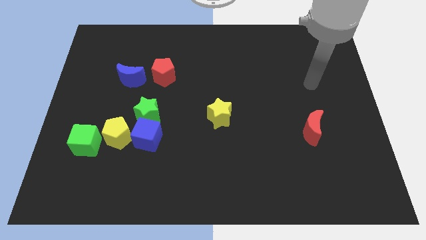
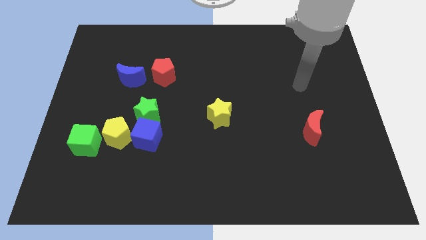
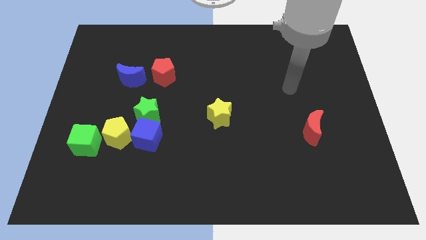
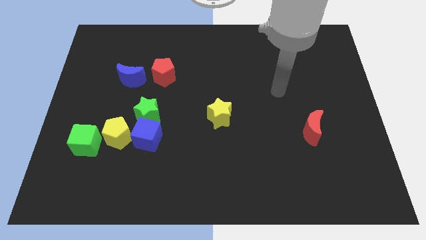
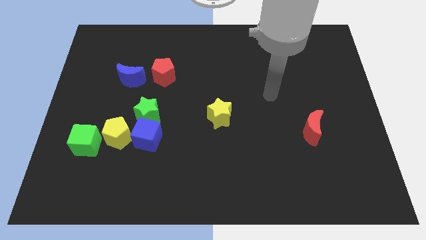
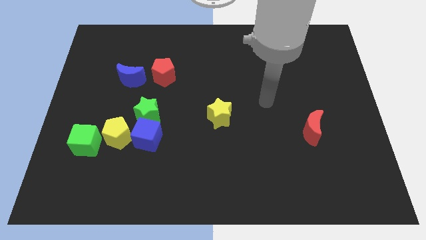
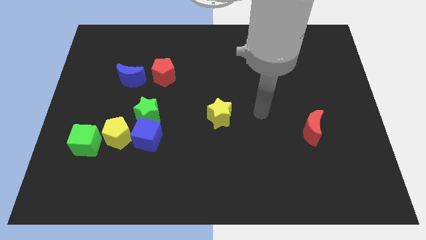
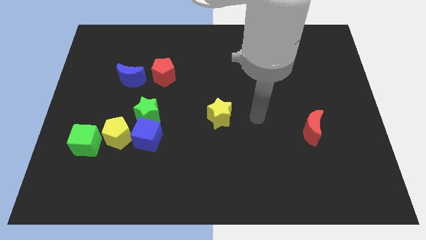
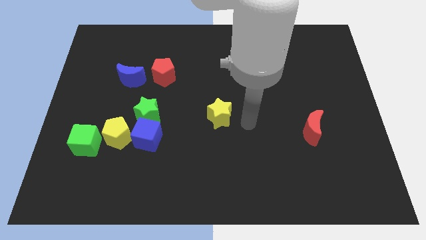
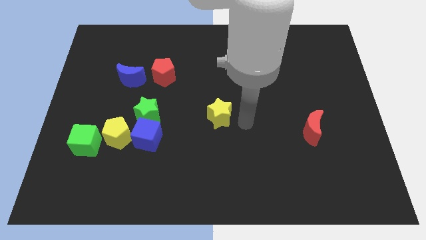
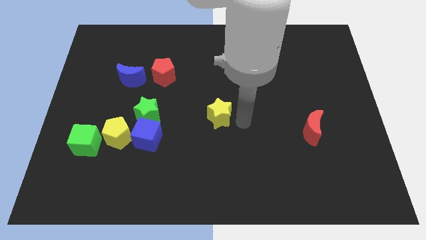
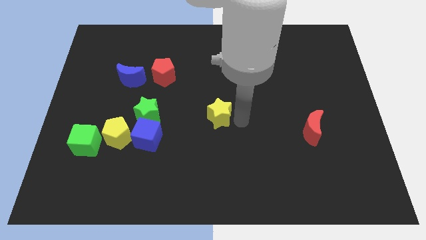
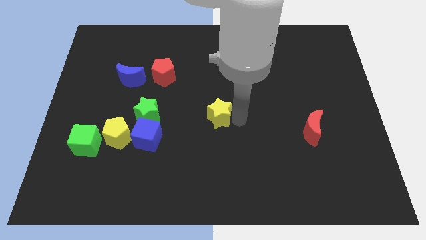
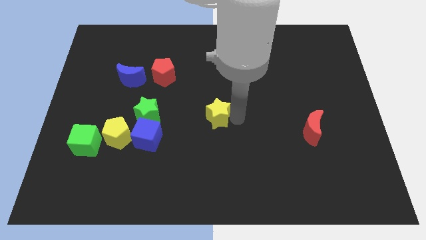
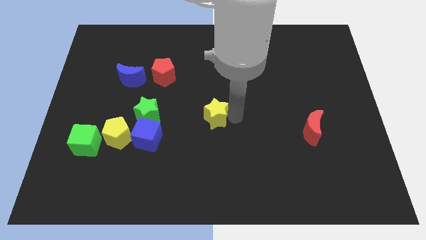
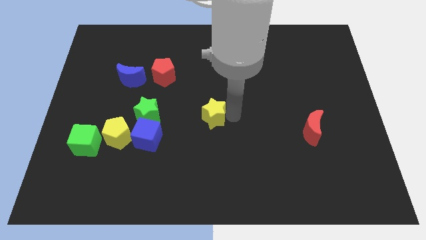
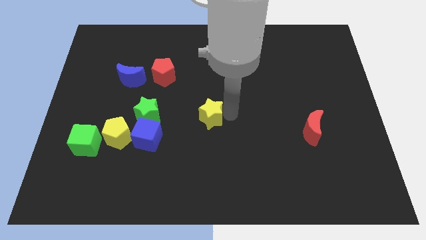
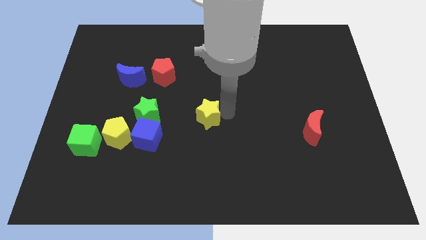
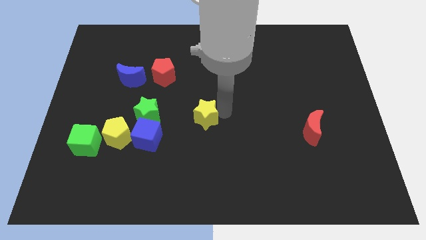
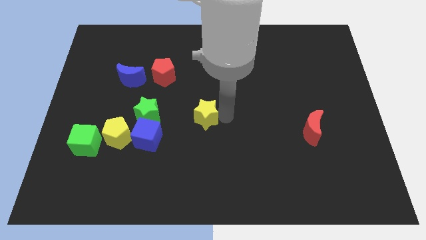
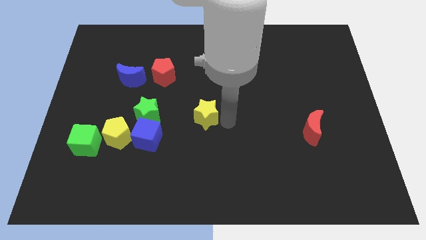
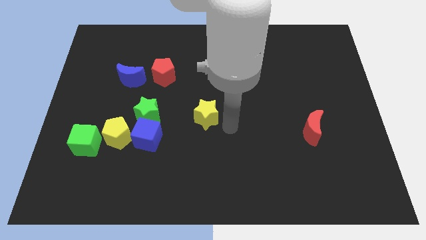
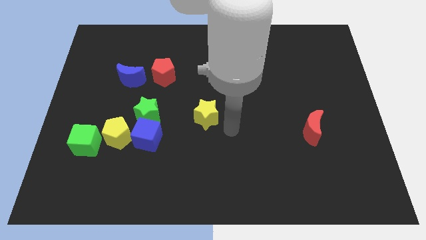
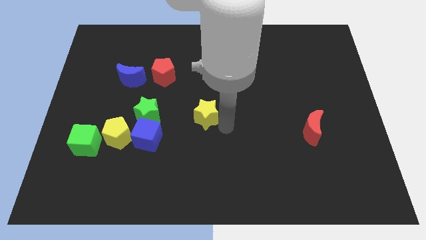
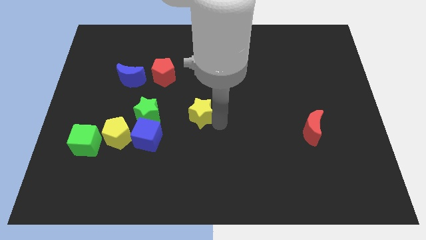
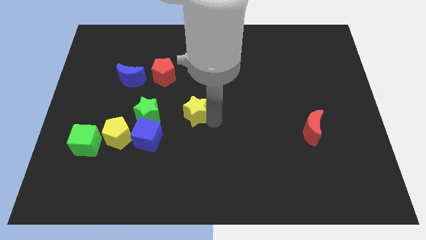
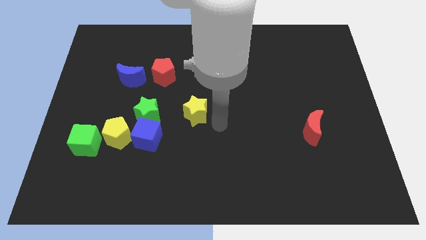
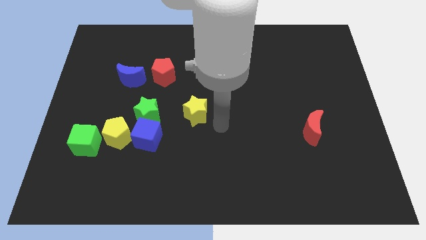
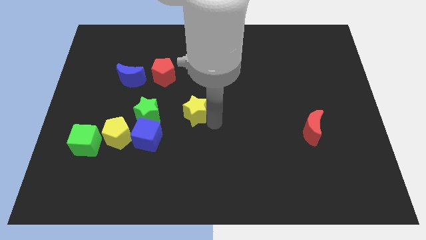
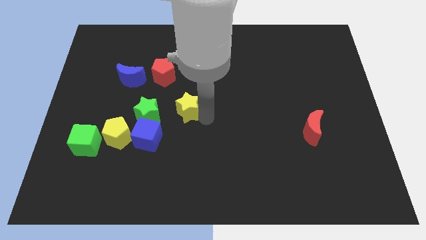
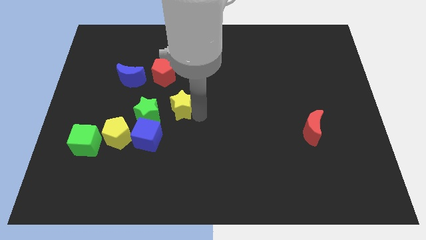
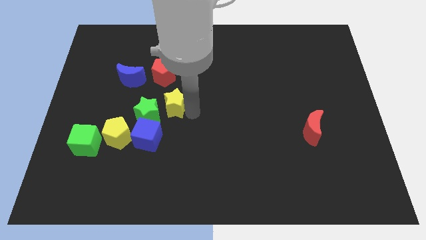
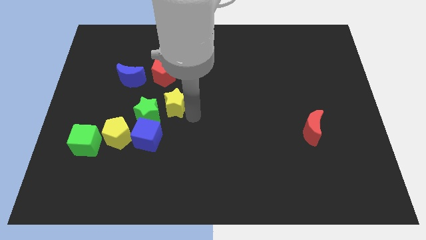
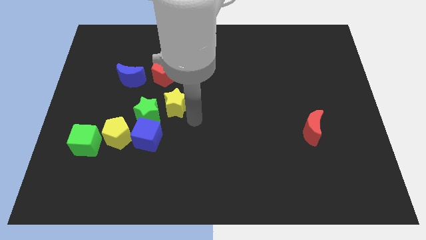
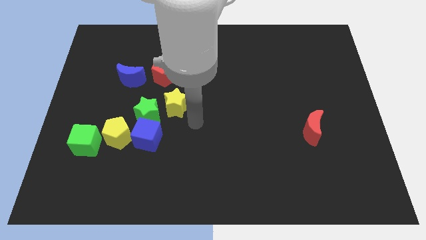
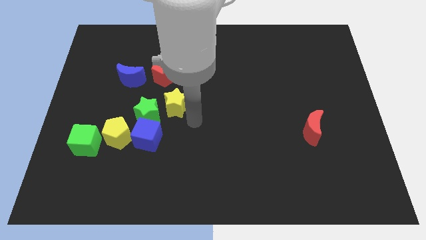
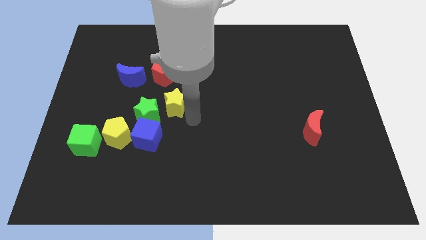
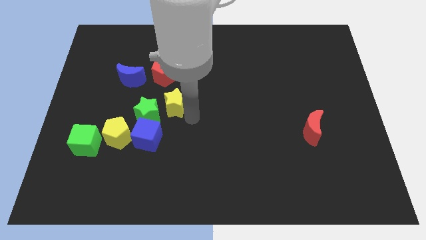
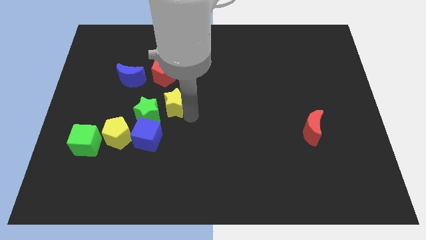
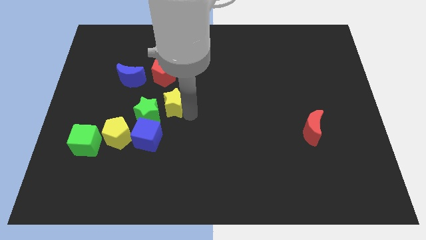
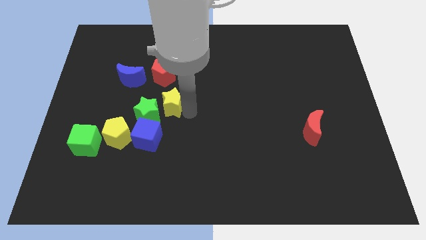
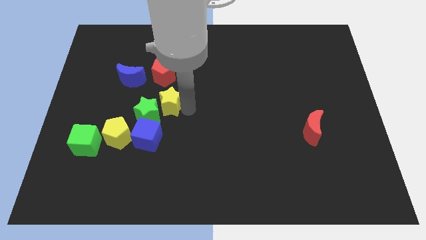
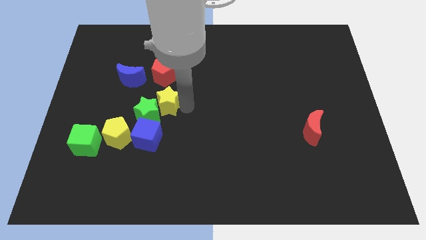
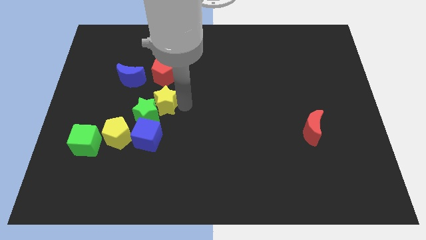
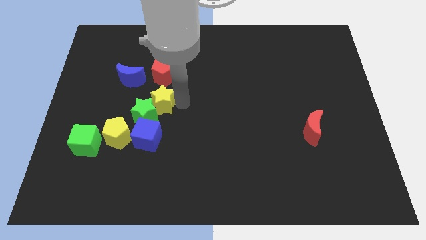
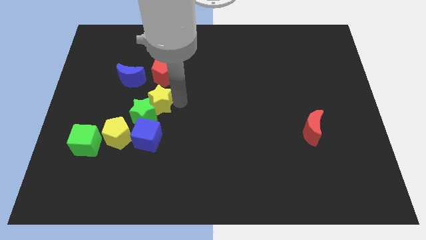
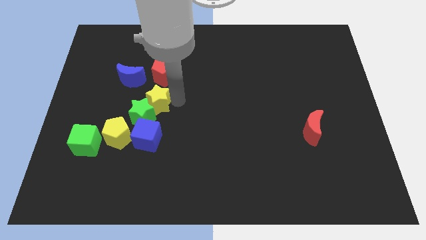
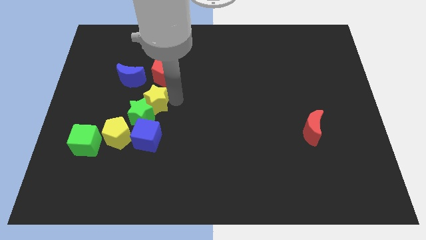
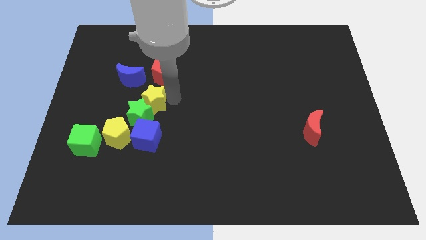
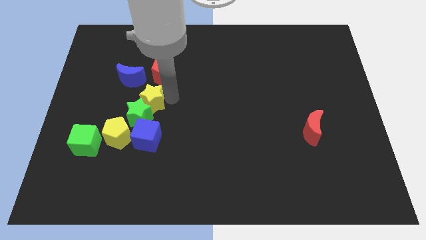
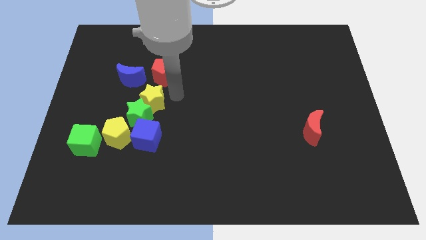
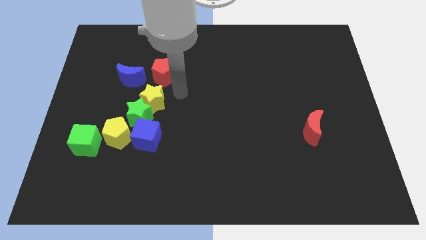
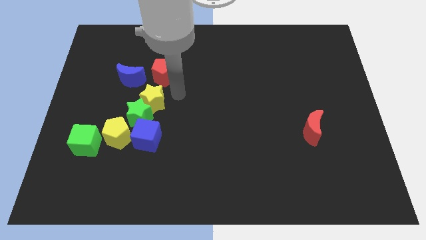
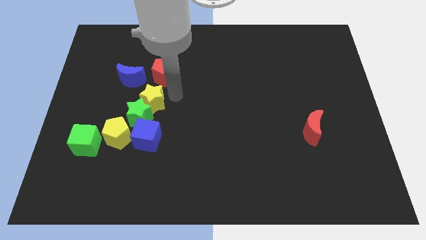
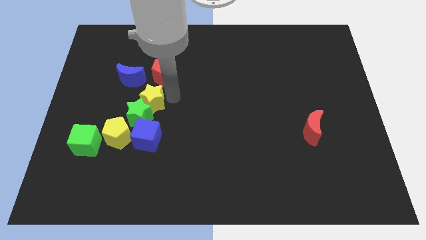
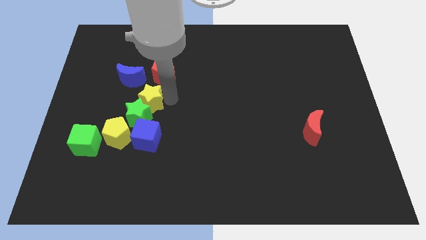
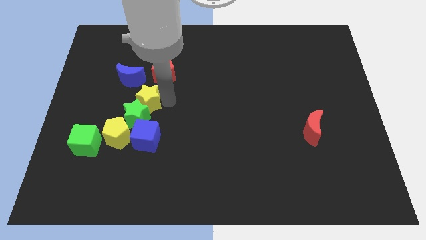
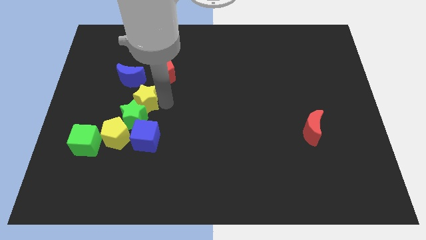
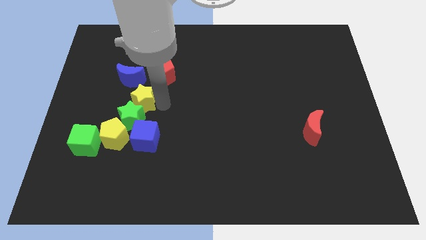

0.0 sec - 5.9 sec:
slide the yellow star below the blue moon

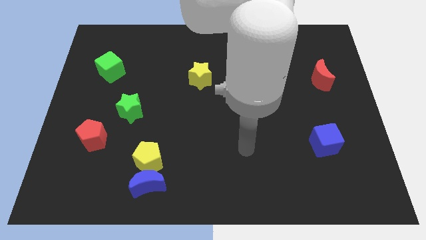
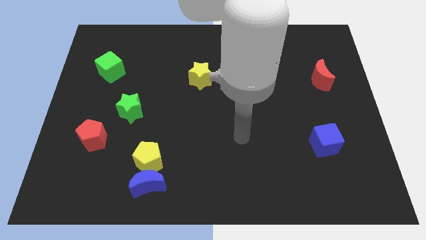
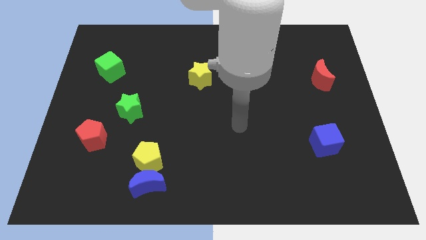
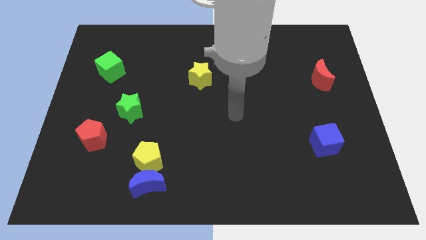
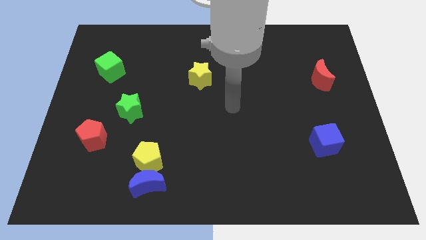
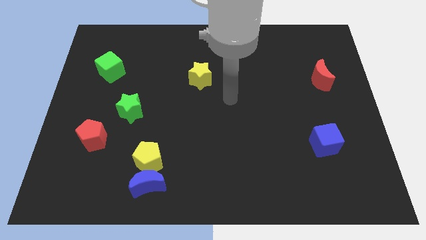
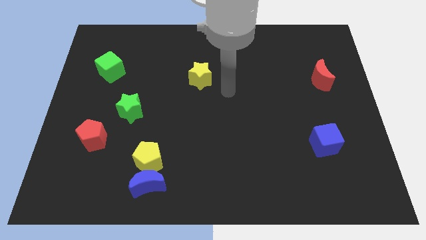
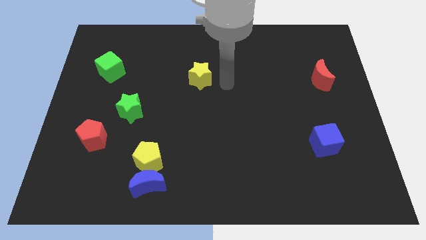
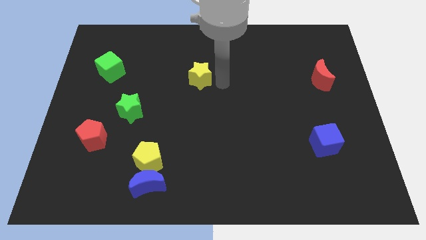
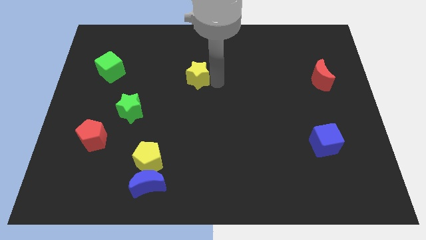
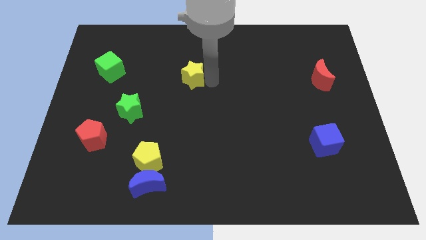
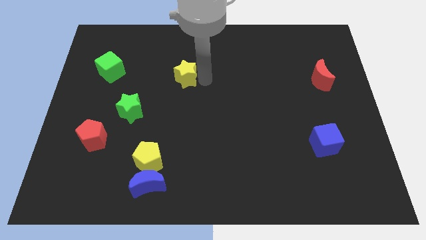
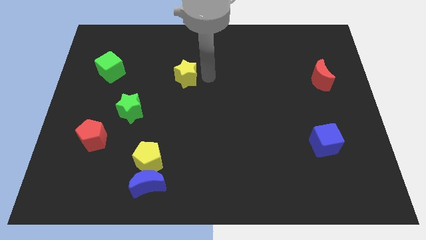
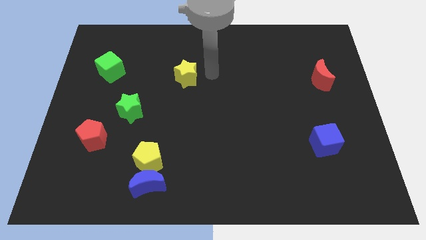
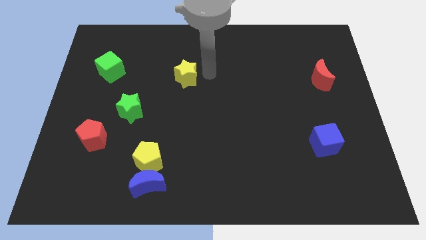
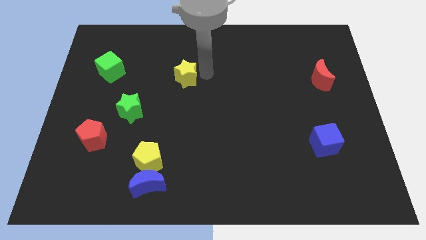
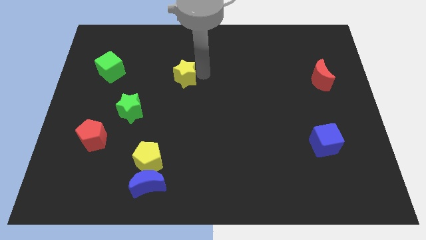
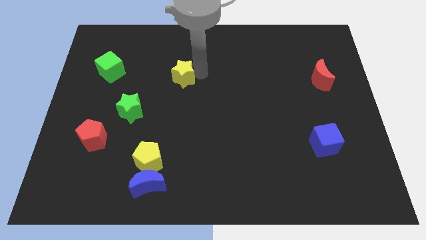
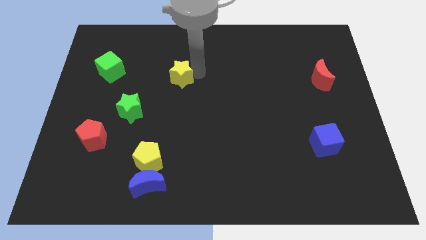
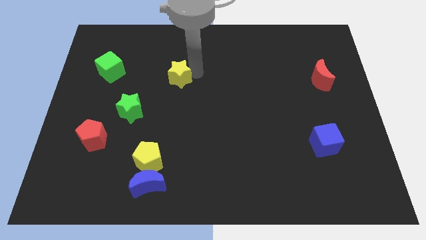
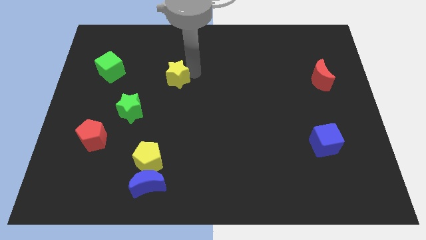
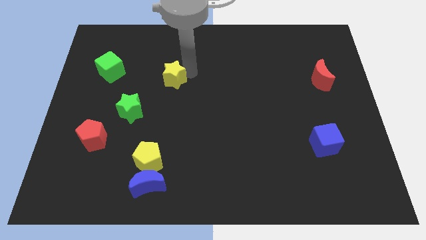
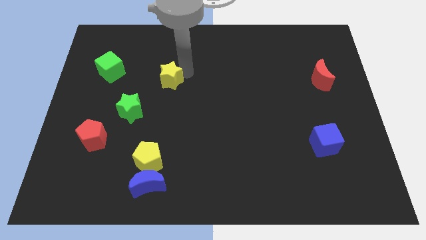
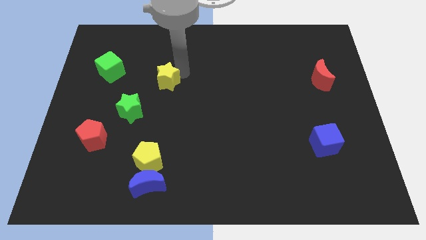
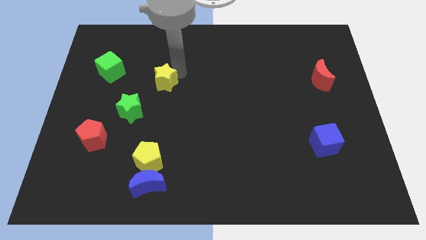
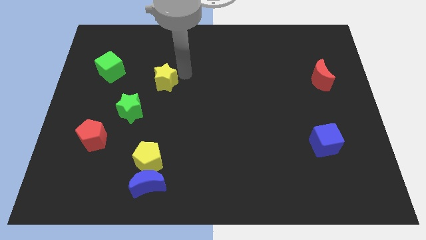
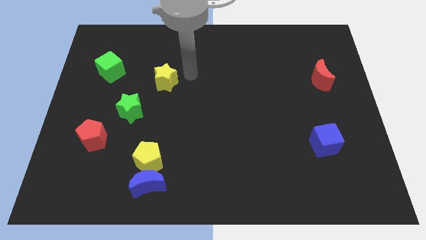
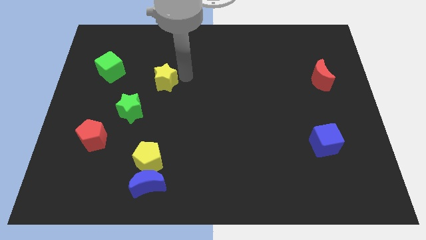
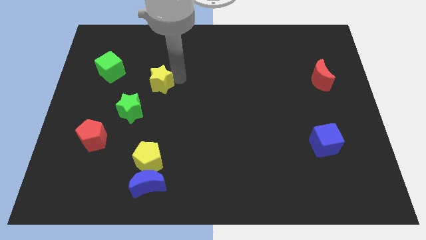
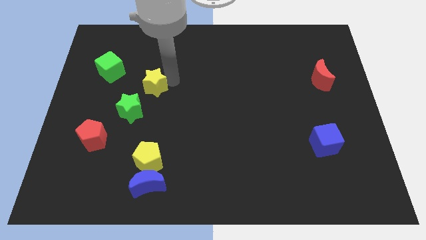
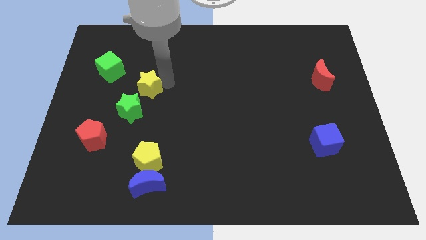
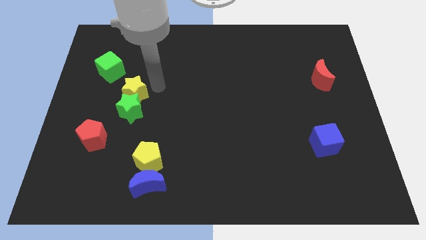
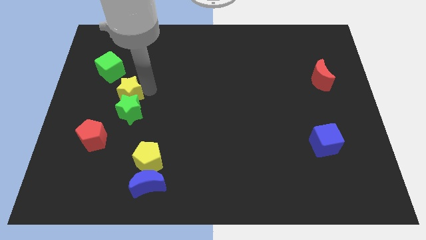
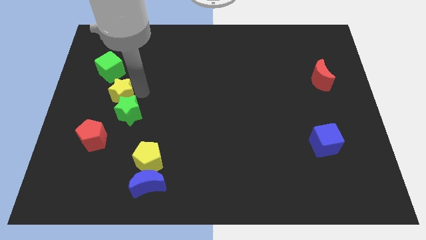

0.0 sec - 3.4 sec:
move the yellow star to the top of the red pentagon
